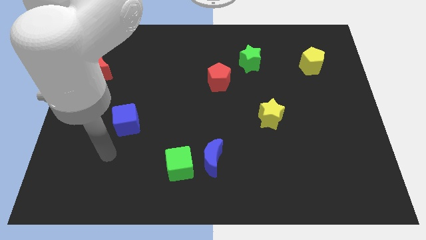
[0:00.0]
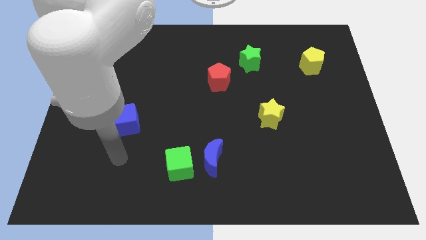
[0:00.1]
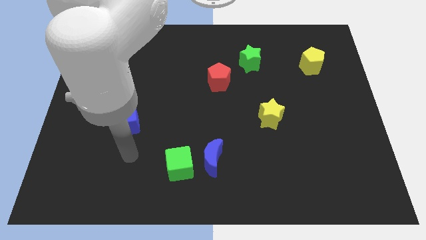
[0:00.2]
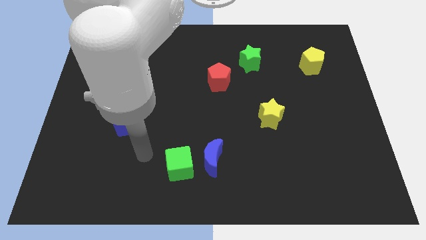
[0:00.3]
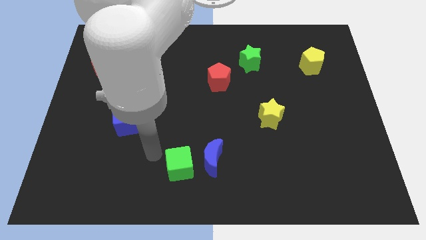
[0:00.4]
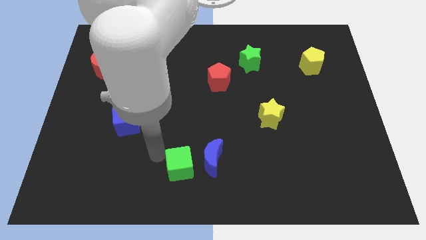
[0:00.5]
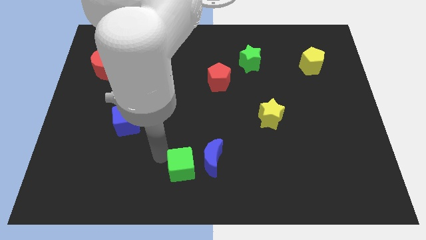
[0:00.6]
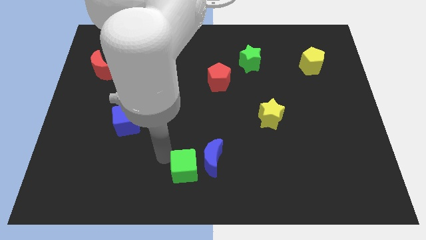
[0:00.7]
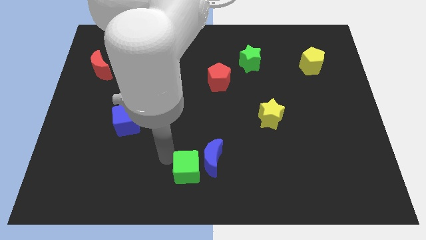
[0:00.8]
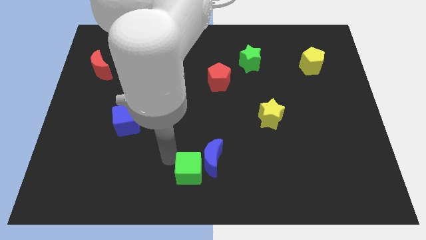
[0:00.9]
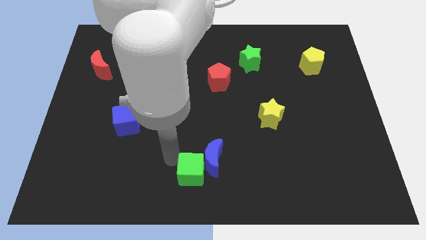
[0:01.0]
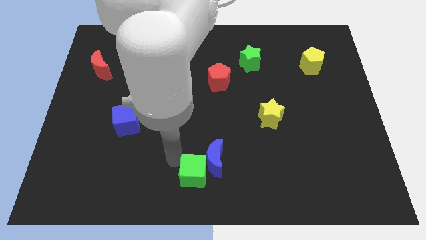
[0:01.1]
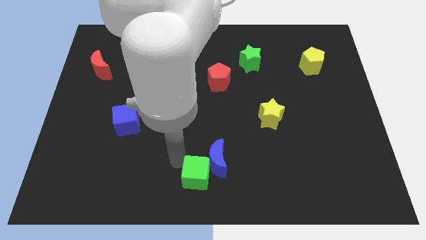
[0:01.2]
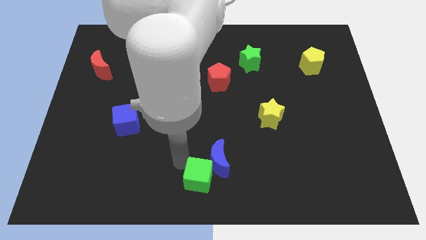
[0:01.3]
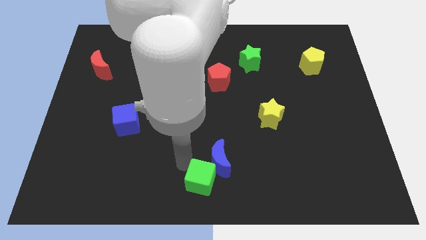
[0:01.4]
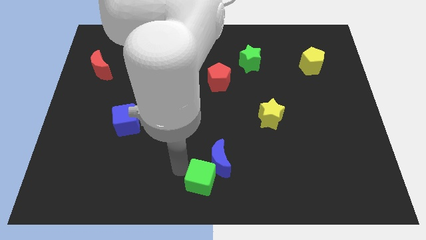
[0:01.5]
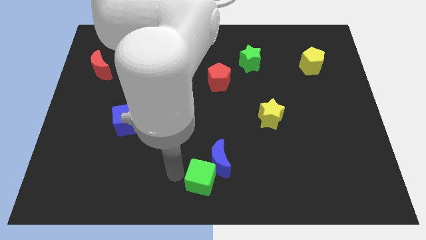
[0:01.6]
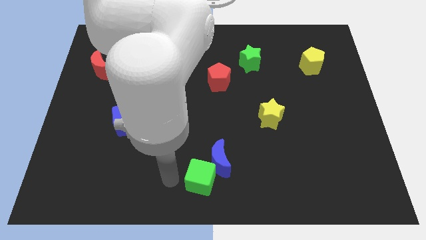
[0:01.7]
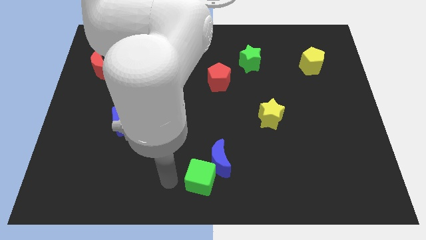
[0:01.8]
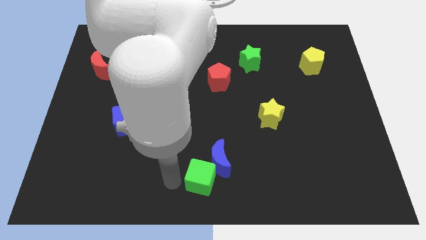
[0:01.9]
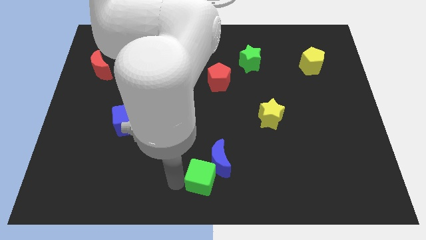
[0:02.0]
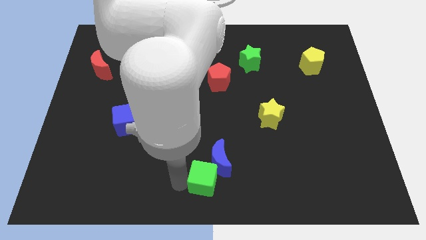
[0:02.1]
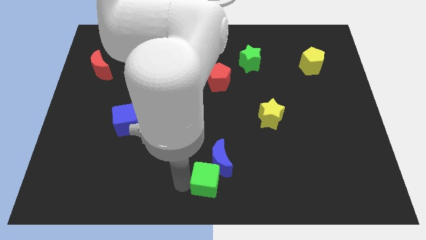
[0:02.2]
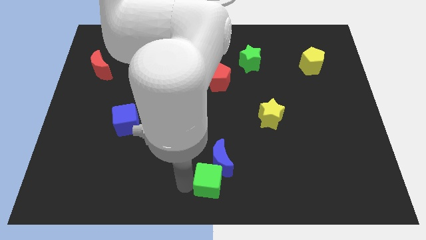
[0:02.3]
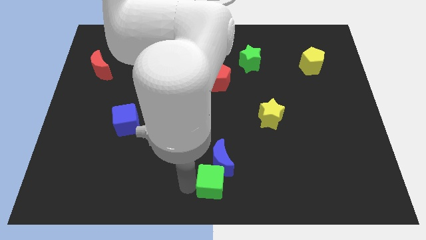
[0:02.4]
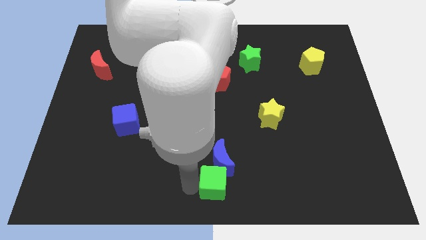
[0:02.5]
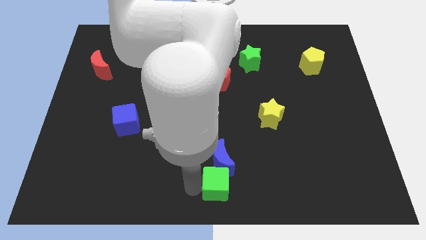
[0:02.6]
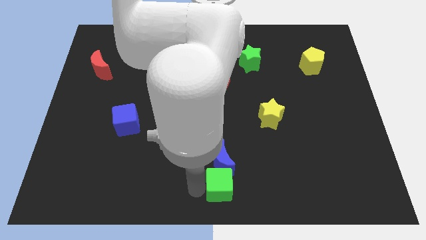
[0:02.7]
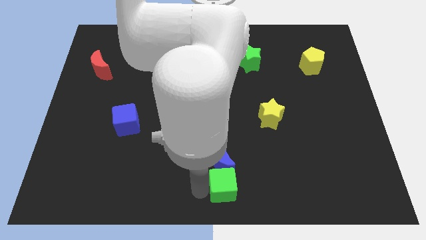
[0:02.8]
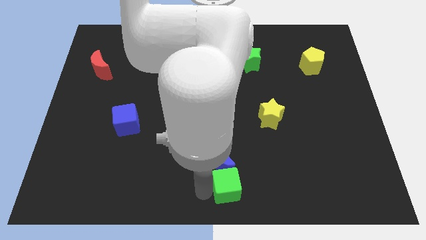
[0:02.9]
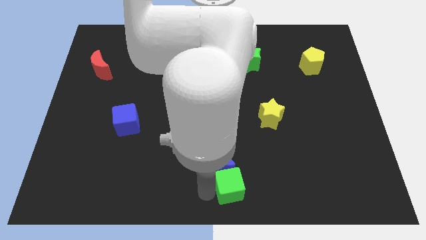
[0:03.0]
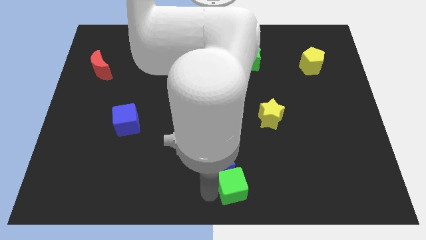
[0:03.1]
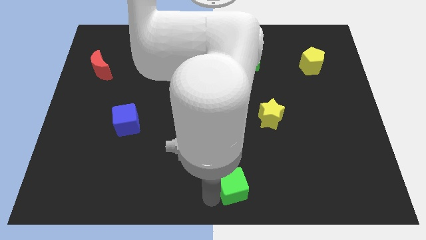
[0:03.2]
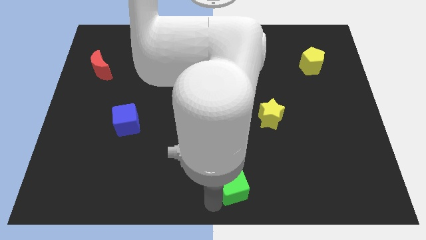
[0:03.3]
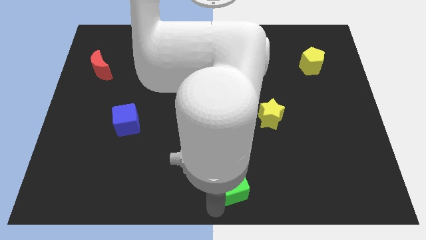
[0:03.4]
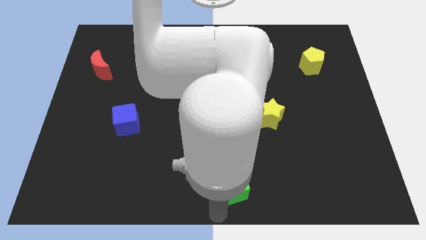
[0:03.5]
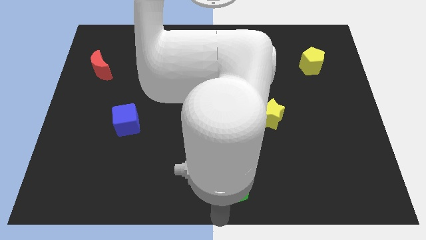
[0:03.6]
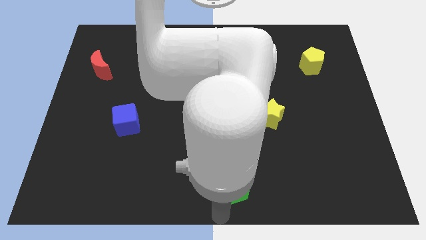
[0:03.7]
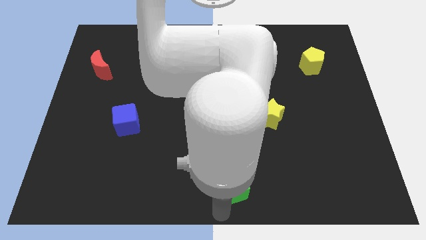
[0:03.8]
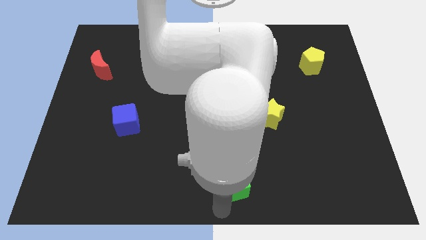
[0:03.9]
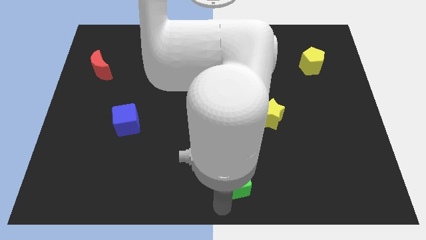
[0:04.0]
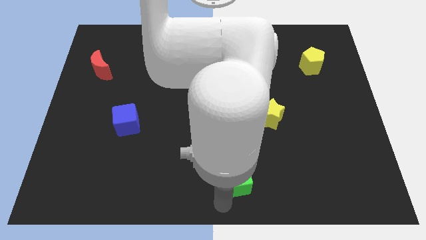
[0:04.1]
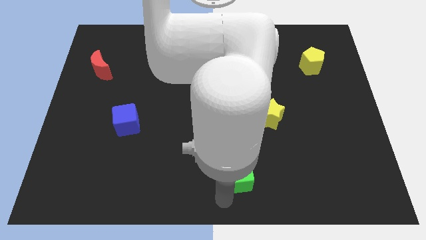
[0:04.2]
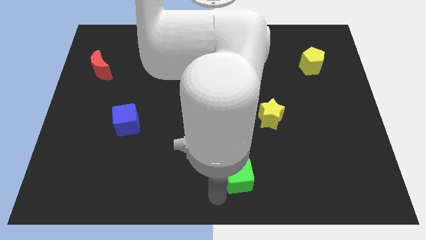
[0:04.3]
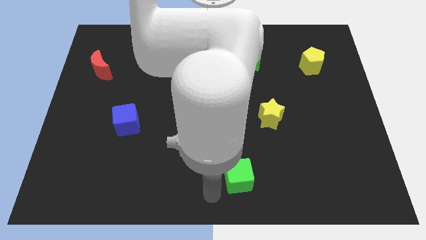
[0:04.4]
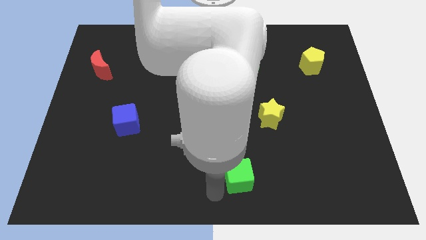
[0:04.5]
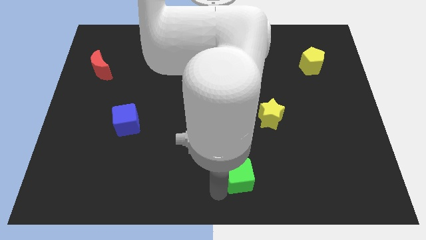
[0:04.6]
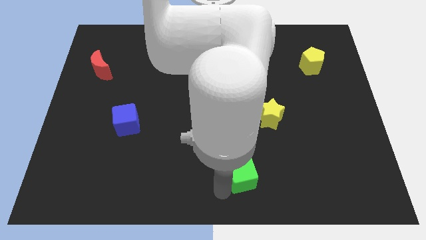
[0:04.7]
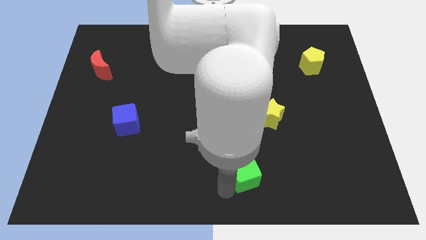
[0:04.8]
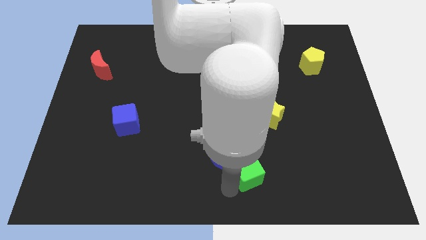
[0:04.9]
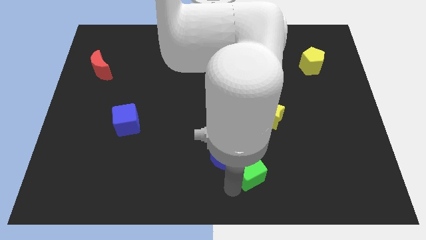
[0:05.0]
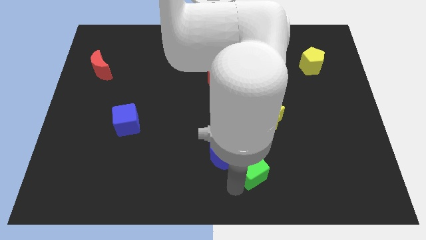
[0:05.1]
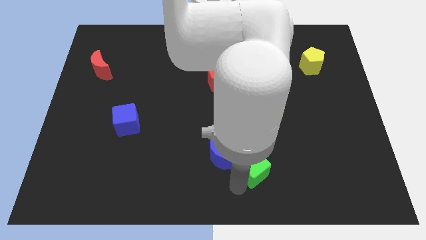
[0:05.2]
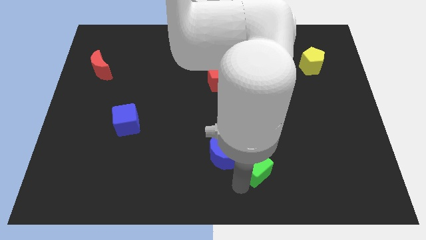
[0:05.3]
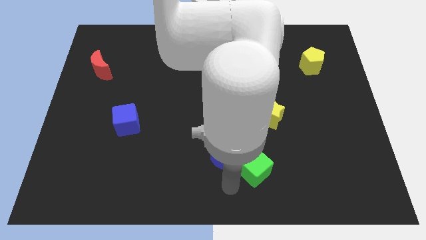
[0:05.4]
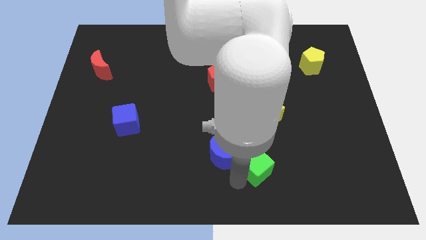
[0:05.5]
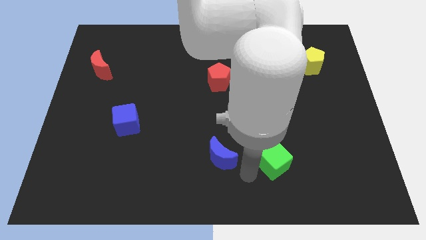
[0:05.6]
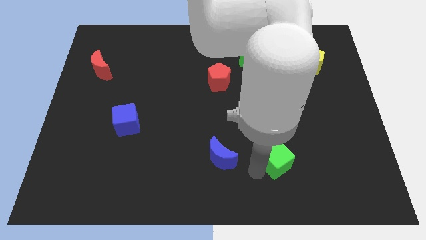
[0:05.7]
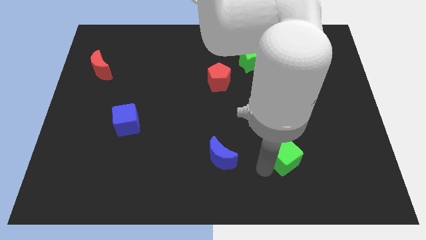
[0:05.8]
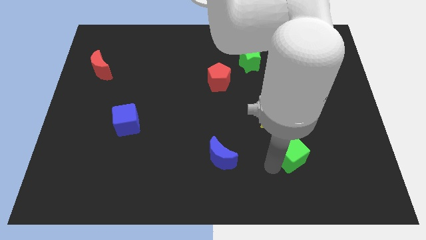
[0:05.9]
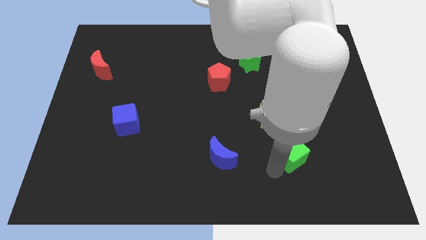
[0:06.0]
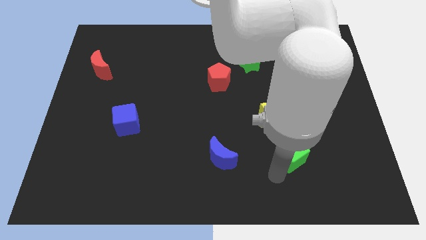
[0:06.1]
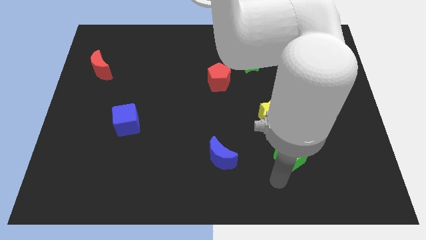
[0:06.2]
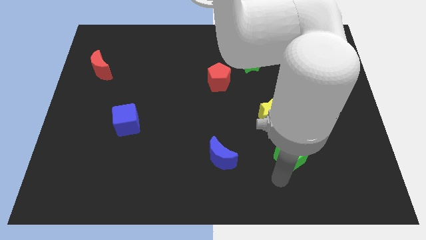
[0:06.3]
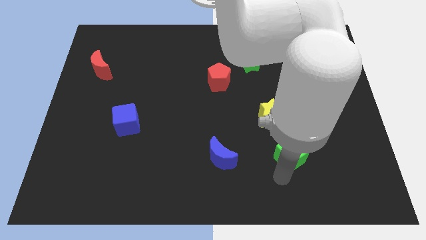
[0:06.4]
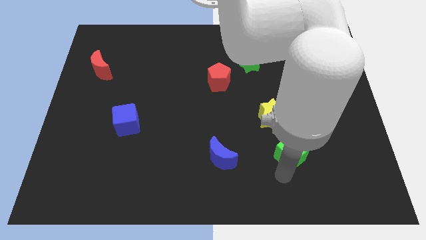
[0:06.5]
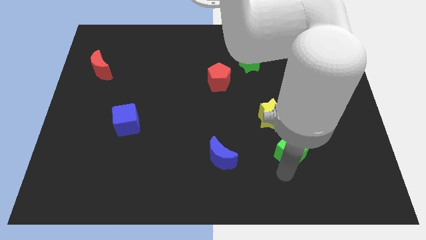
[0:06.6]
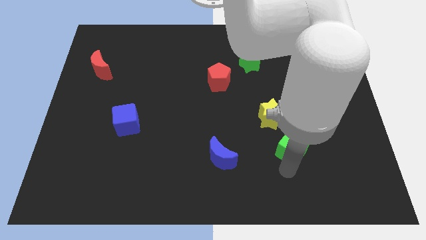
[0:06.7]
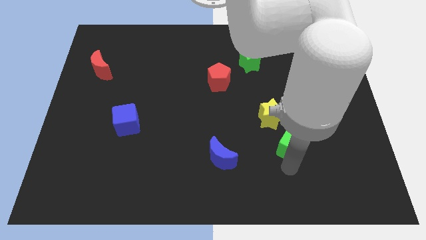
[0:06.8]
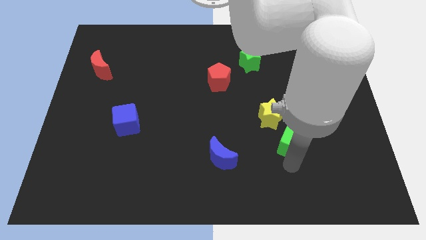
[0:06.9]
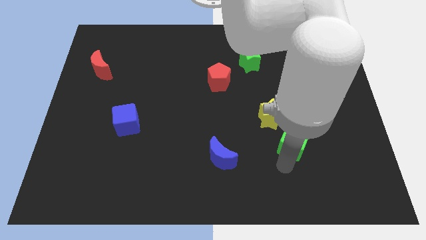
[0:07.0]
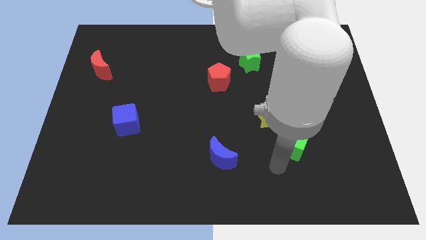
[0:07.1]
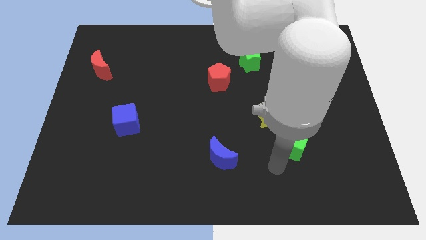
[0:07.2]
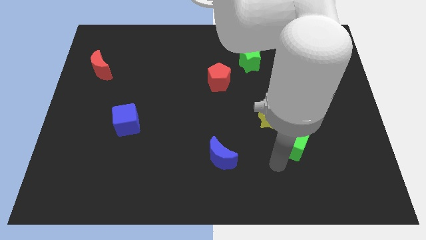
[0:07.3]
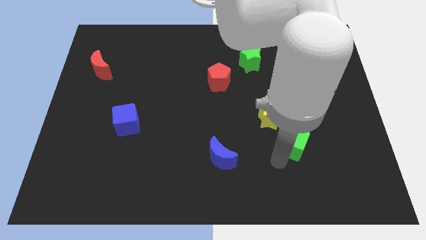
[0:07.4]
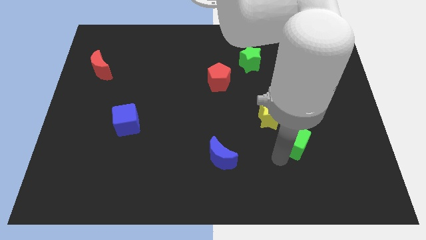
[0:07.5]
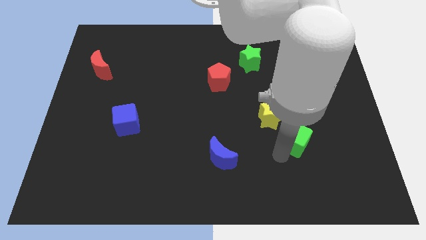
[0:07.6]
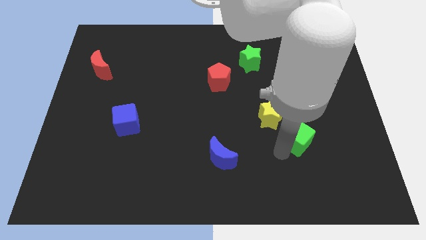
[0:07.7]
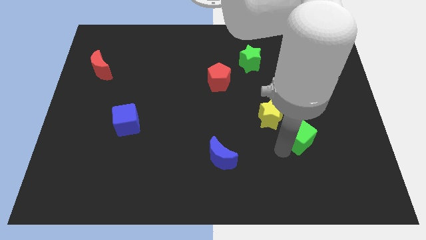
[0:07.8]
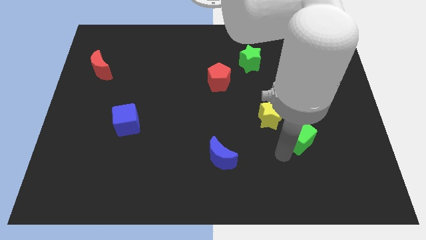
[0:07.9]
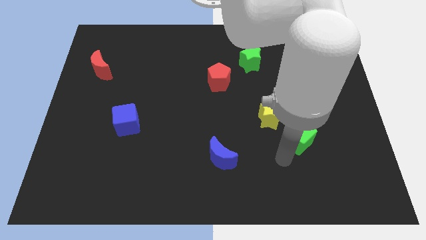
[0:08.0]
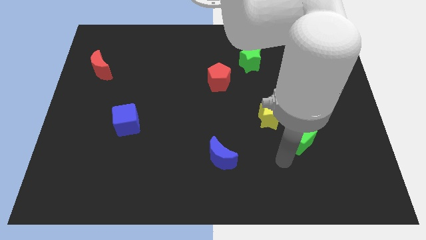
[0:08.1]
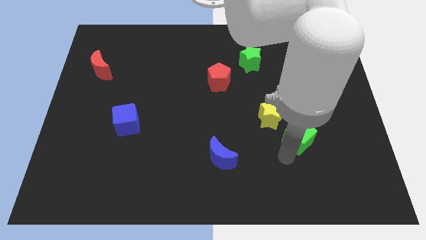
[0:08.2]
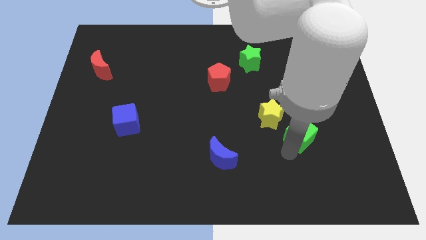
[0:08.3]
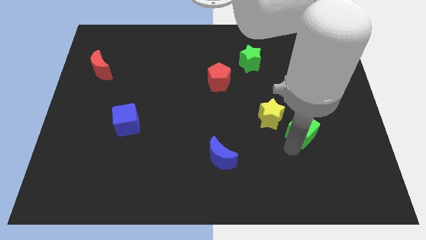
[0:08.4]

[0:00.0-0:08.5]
move the green cube to the right of the yellow star
